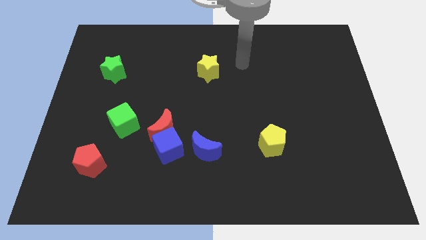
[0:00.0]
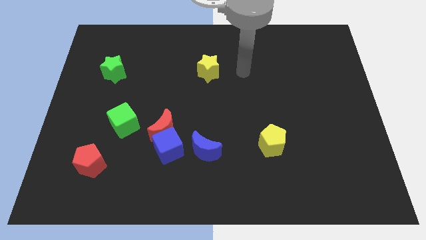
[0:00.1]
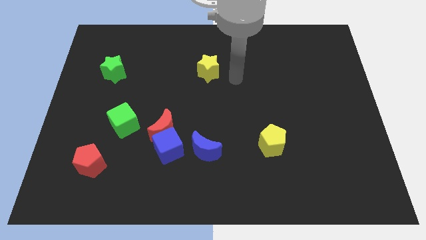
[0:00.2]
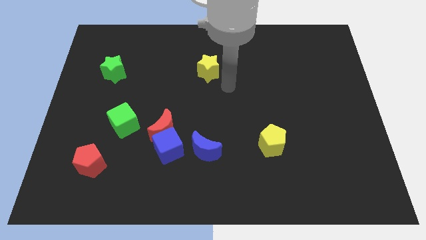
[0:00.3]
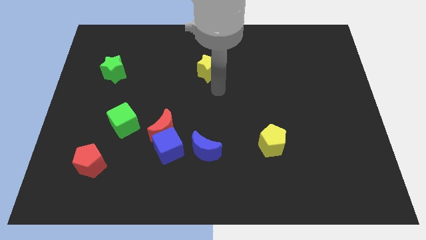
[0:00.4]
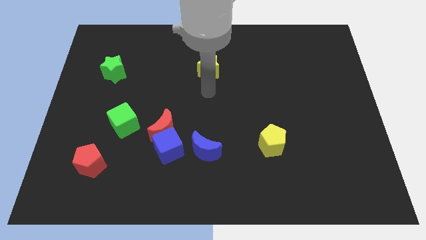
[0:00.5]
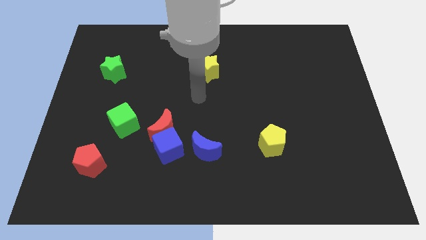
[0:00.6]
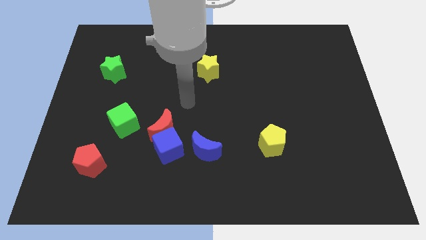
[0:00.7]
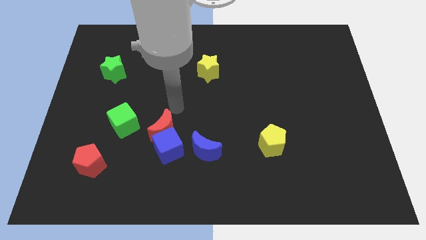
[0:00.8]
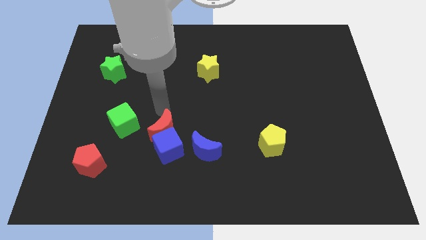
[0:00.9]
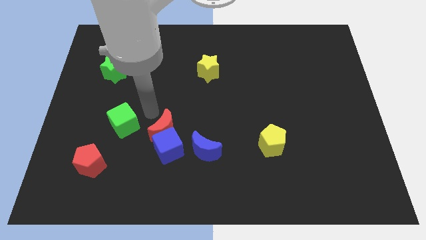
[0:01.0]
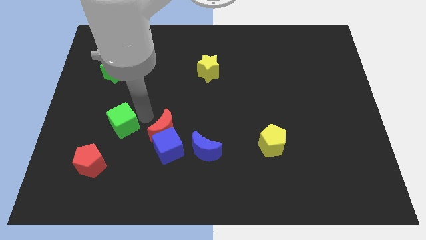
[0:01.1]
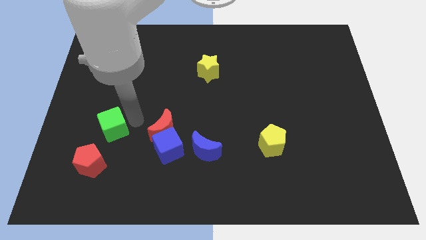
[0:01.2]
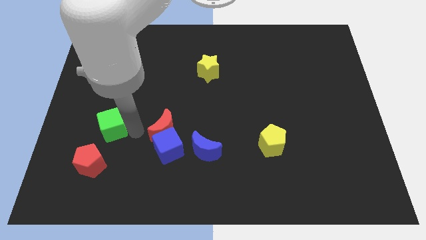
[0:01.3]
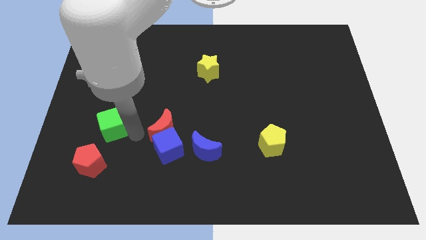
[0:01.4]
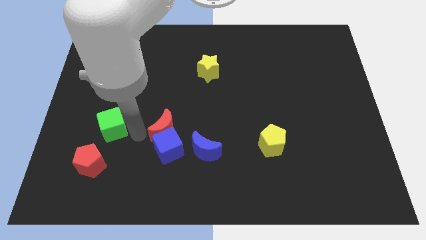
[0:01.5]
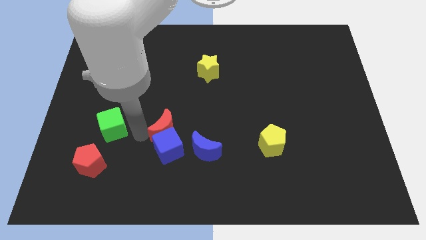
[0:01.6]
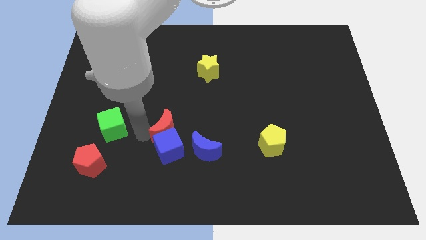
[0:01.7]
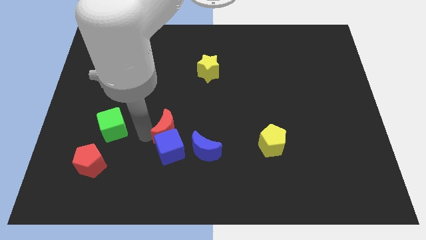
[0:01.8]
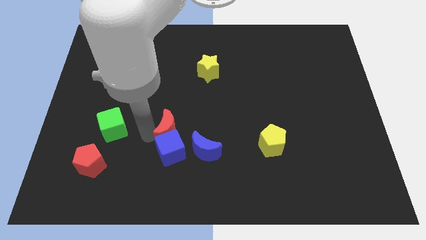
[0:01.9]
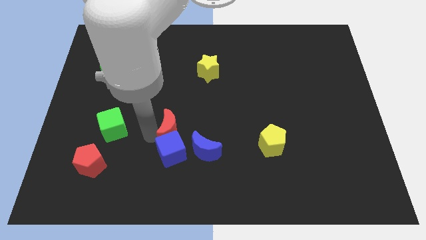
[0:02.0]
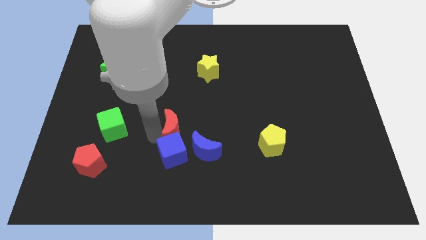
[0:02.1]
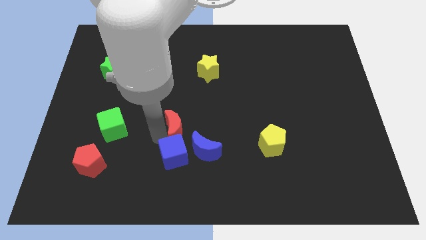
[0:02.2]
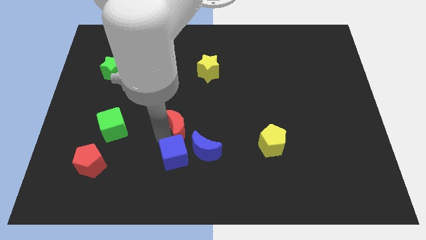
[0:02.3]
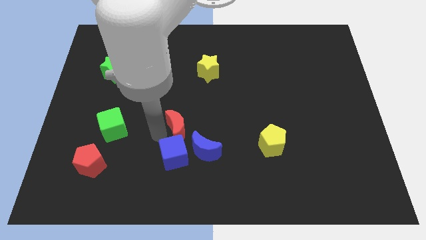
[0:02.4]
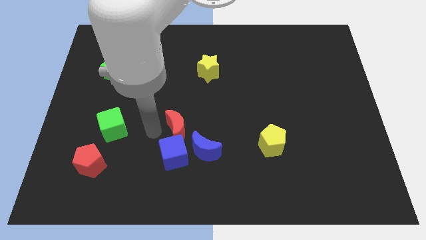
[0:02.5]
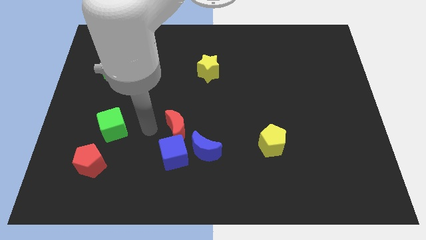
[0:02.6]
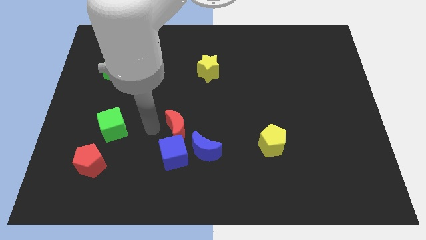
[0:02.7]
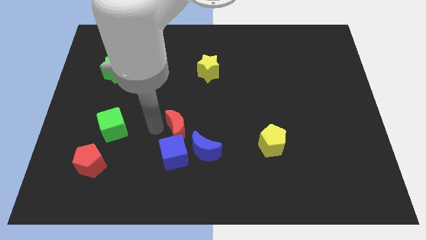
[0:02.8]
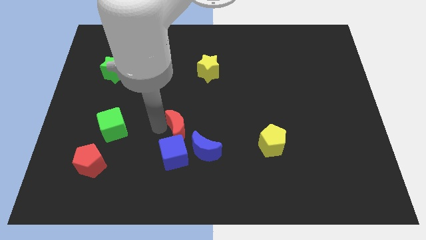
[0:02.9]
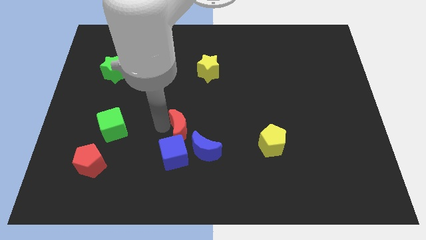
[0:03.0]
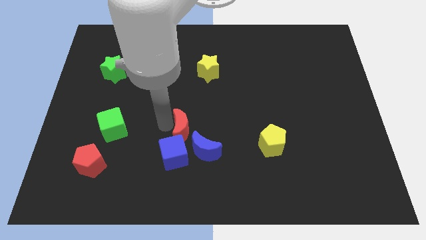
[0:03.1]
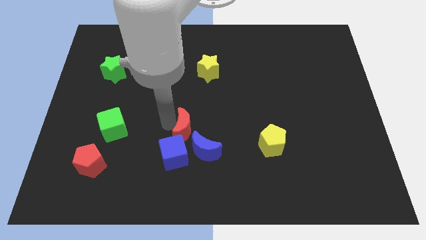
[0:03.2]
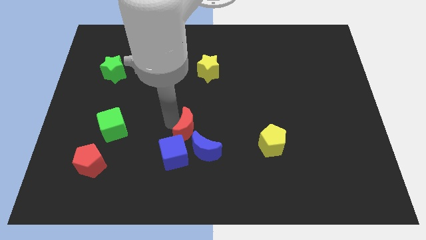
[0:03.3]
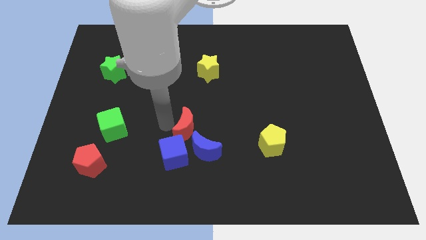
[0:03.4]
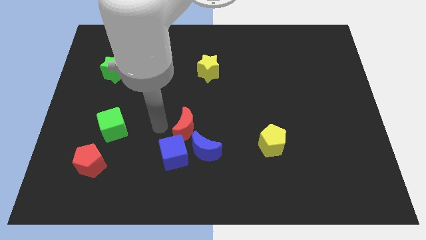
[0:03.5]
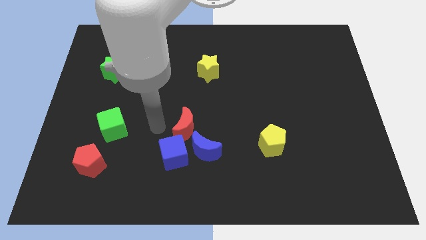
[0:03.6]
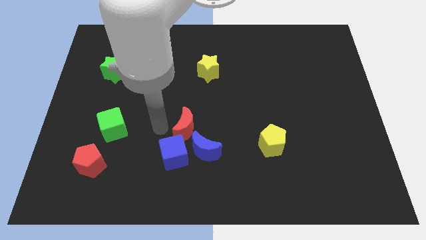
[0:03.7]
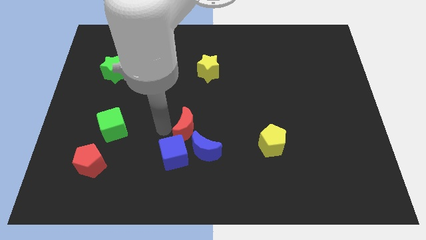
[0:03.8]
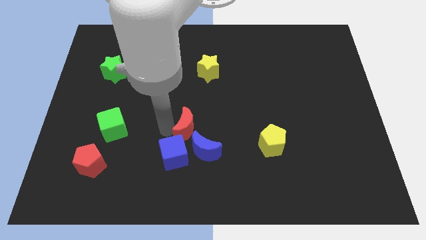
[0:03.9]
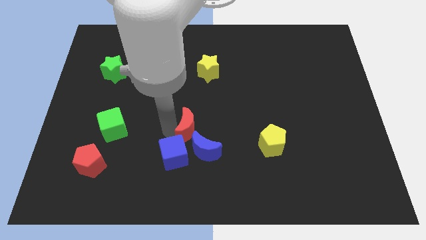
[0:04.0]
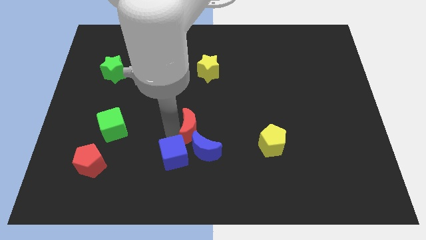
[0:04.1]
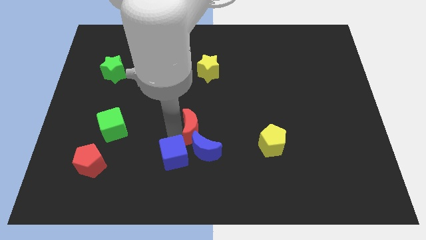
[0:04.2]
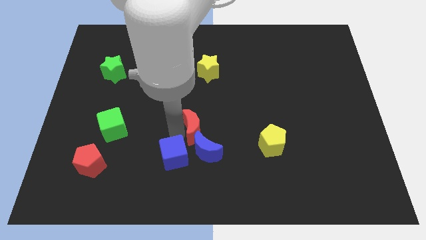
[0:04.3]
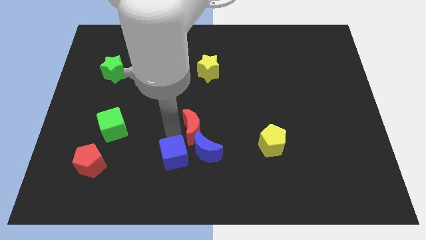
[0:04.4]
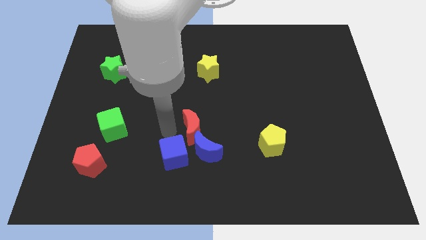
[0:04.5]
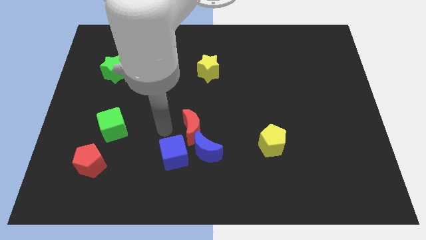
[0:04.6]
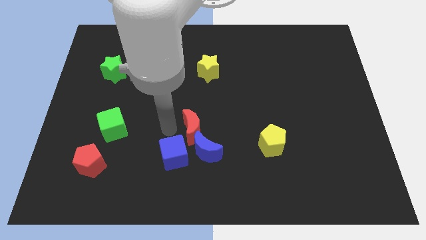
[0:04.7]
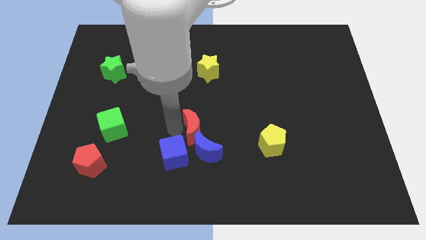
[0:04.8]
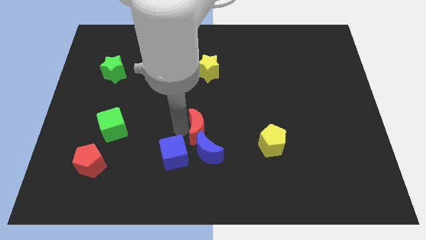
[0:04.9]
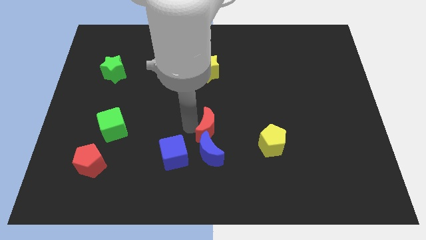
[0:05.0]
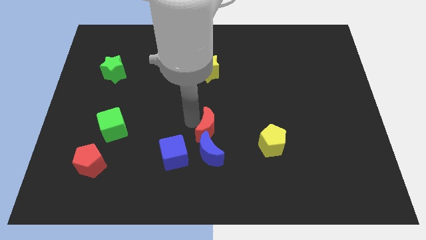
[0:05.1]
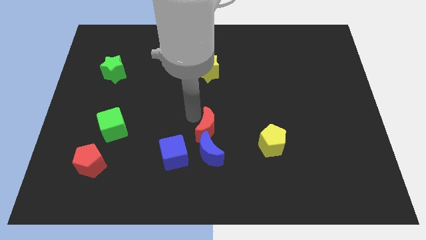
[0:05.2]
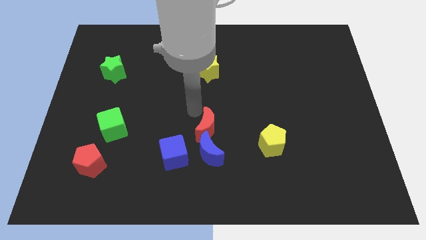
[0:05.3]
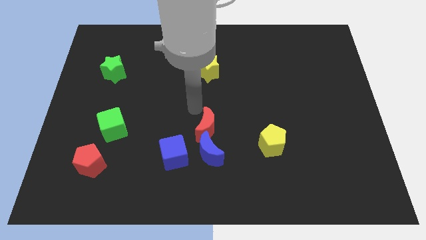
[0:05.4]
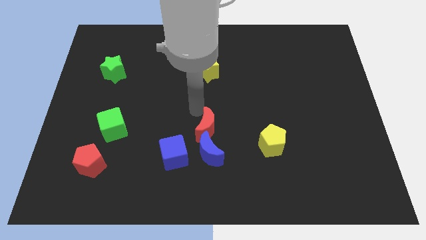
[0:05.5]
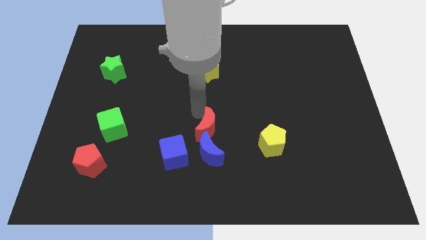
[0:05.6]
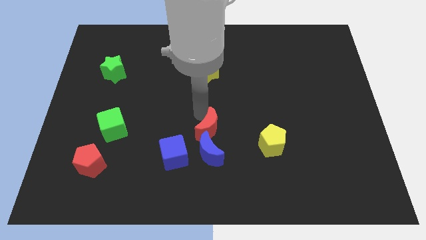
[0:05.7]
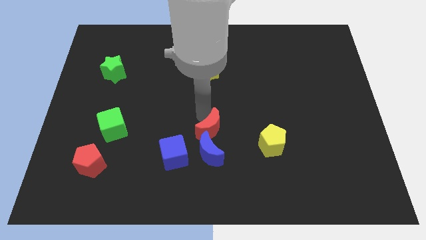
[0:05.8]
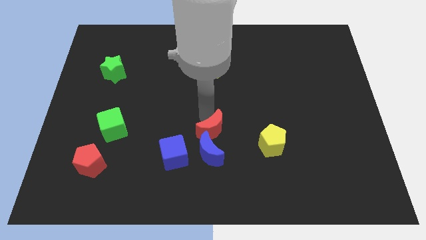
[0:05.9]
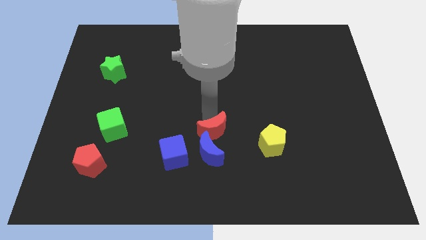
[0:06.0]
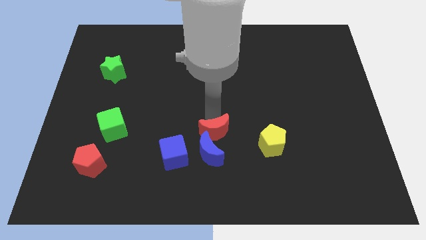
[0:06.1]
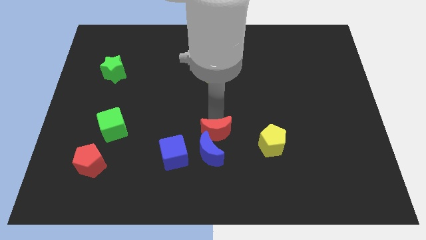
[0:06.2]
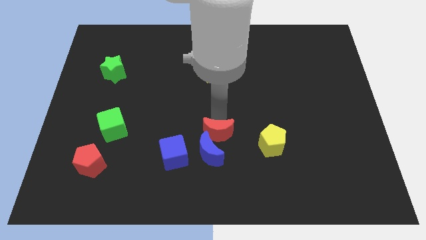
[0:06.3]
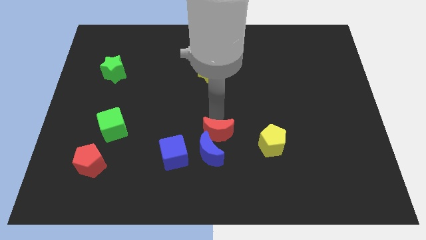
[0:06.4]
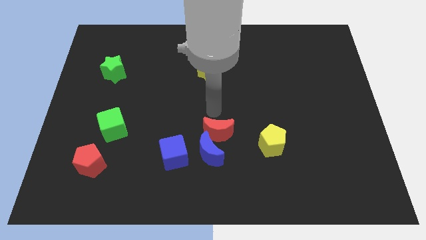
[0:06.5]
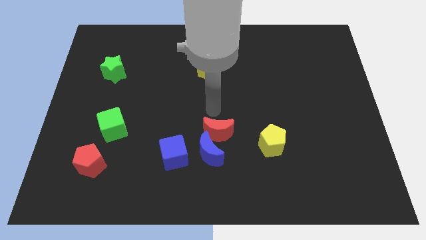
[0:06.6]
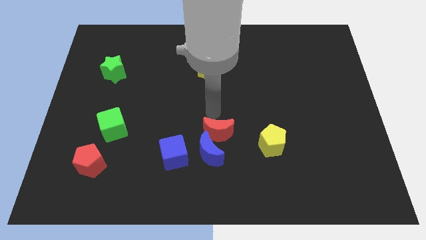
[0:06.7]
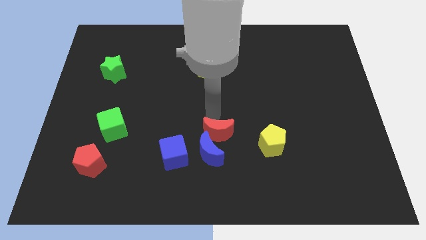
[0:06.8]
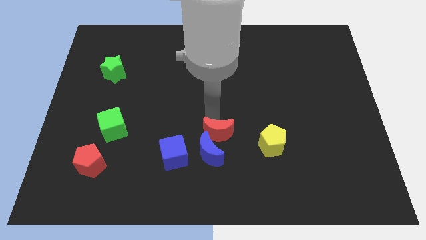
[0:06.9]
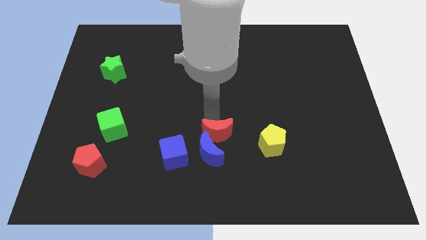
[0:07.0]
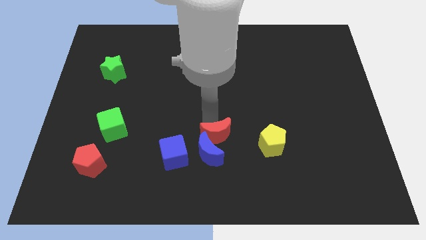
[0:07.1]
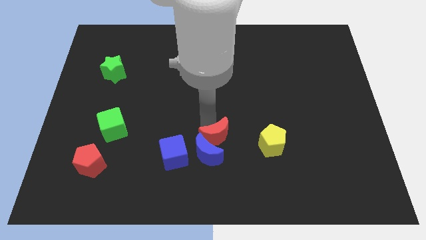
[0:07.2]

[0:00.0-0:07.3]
slide the red moon to the right side of the blue cube

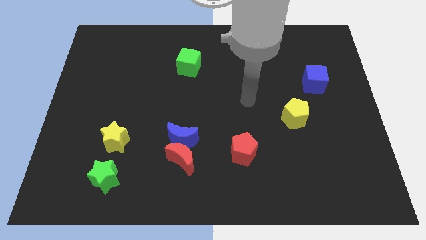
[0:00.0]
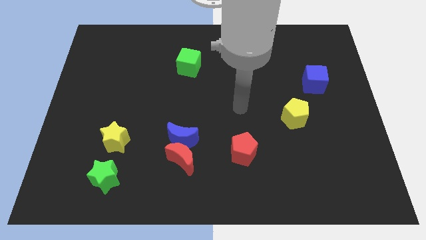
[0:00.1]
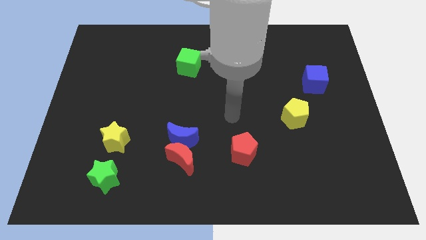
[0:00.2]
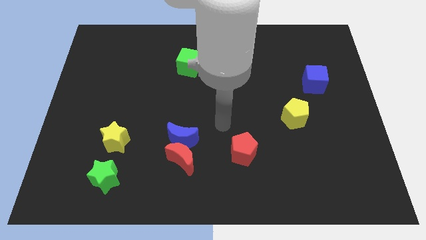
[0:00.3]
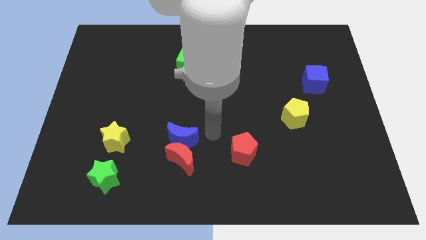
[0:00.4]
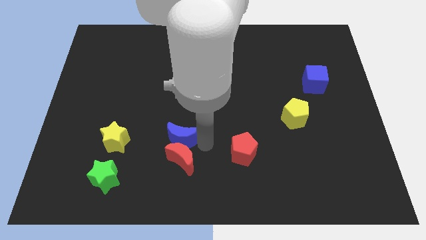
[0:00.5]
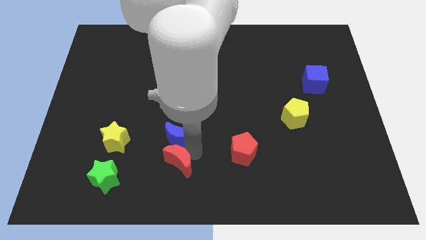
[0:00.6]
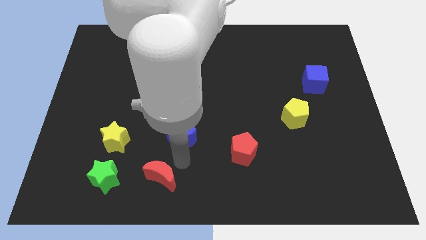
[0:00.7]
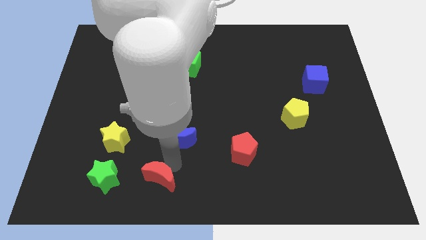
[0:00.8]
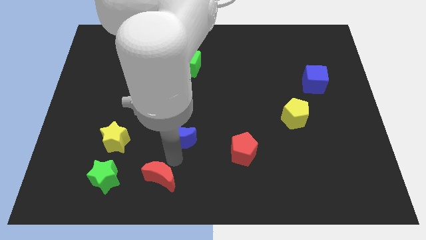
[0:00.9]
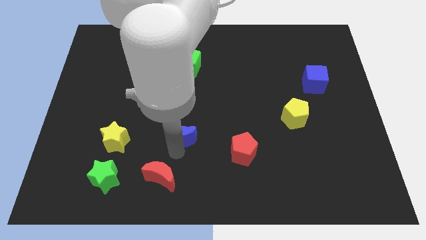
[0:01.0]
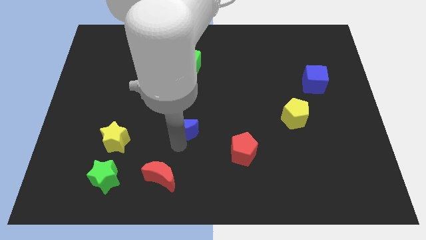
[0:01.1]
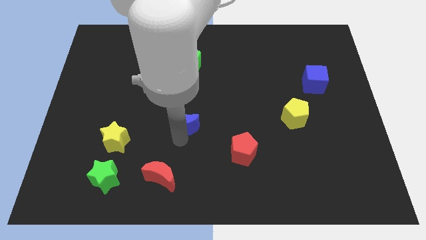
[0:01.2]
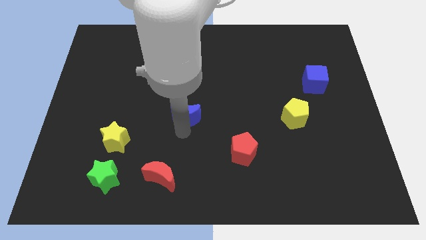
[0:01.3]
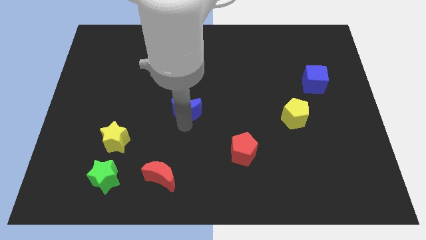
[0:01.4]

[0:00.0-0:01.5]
push the blue moon below the green cube
